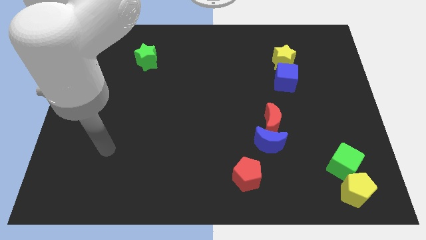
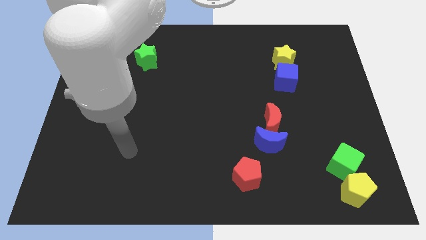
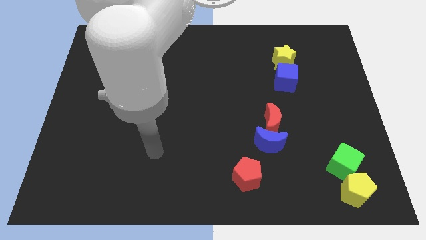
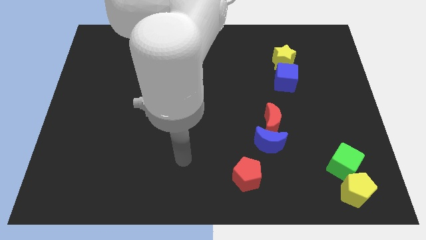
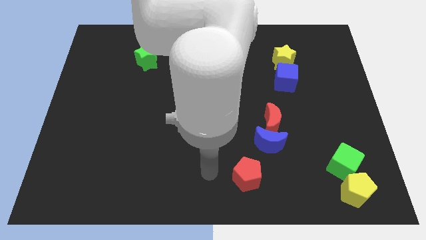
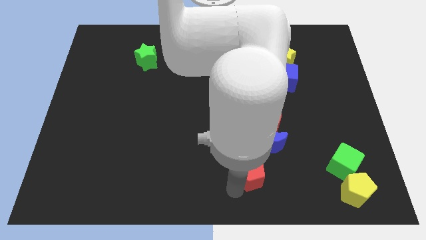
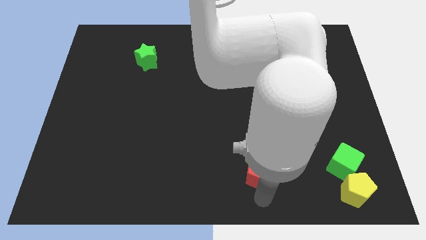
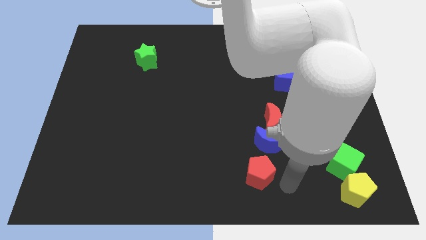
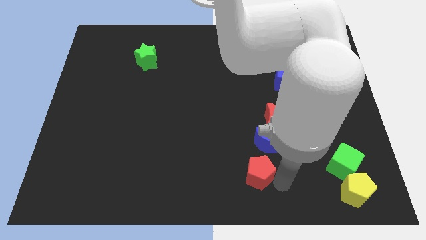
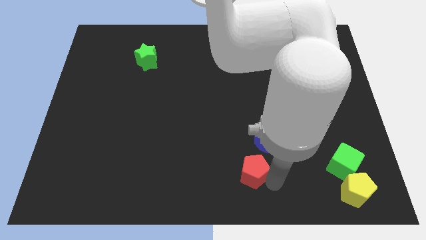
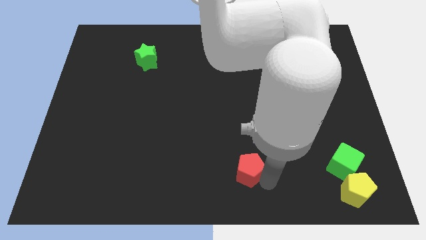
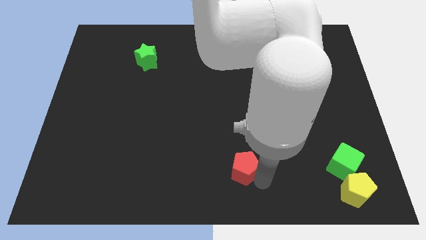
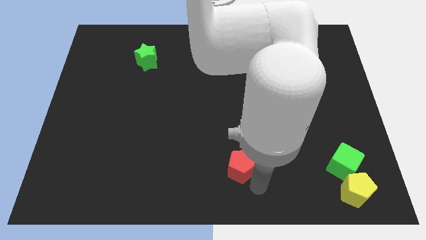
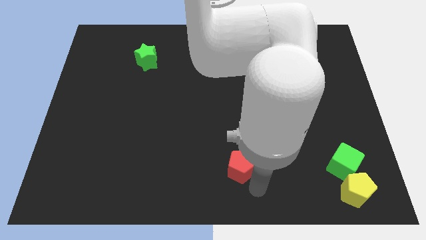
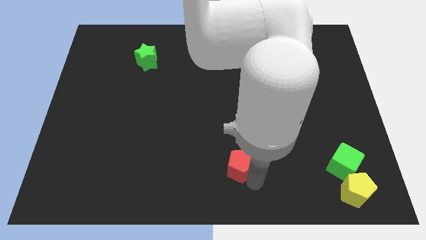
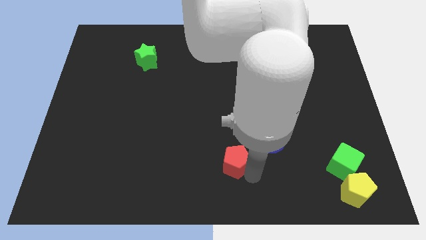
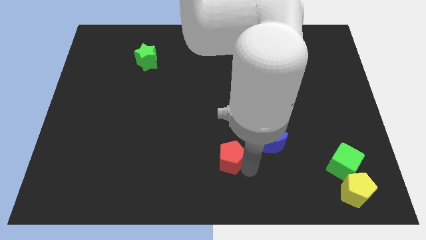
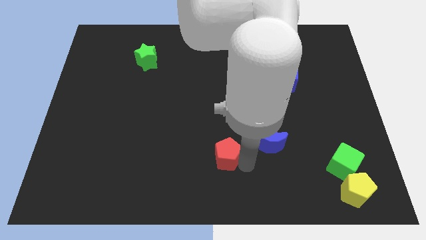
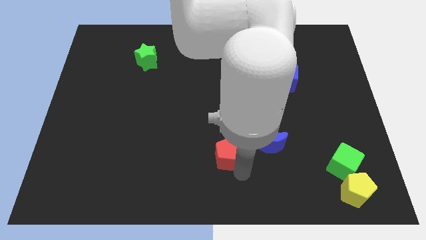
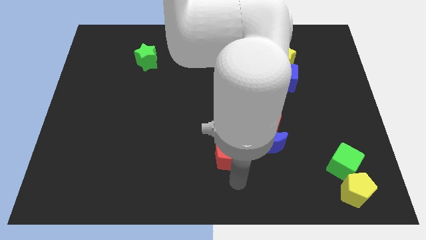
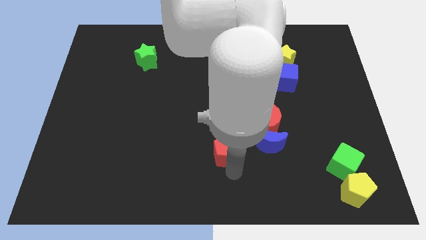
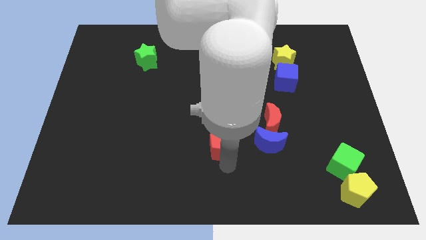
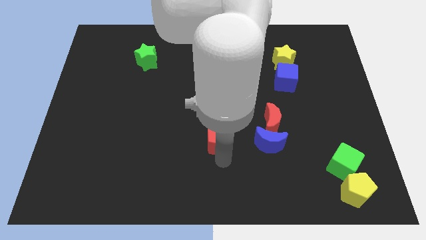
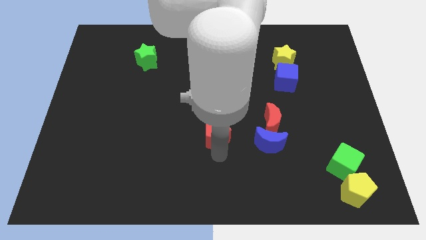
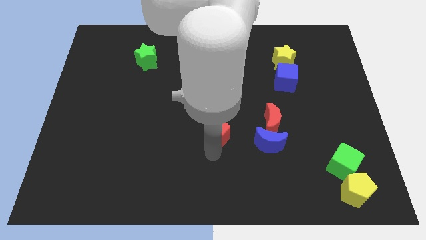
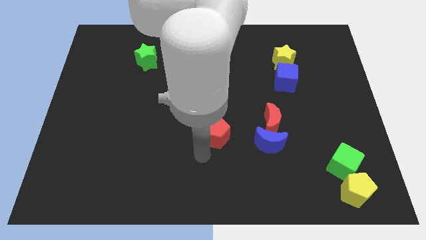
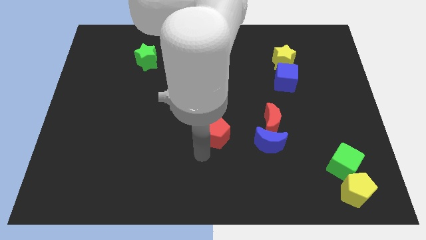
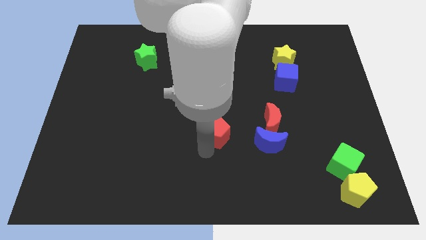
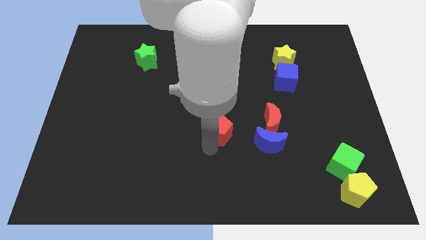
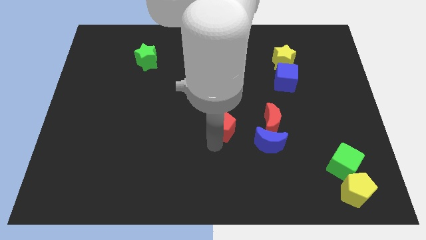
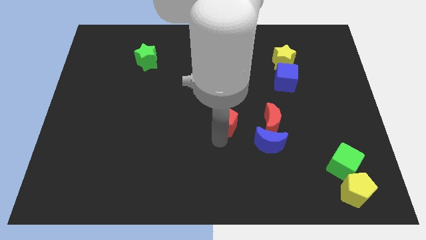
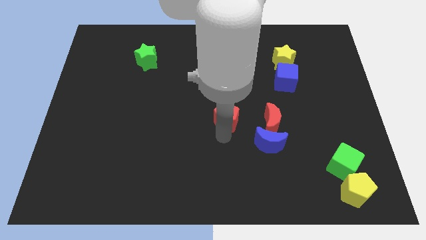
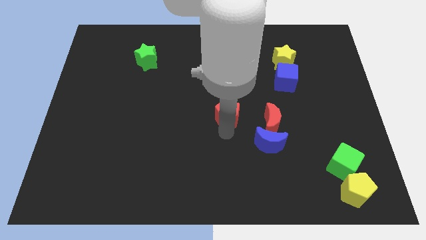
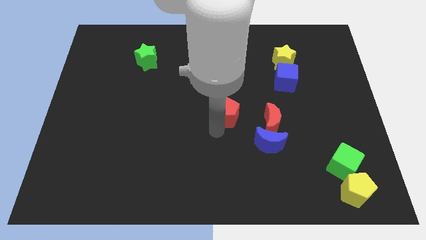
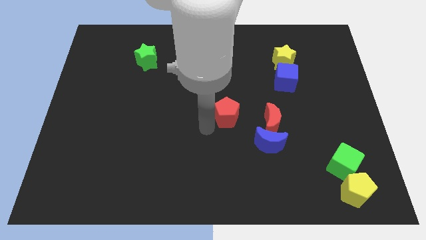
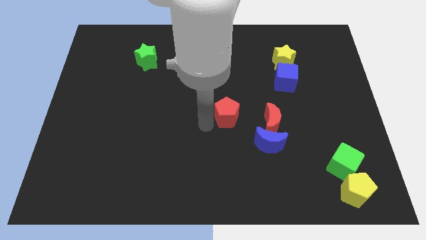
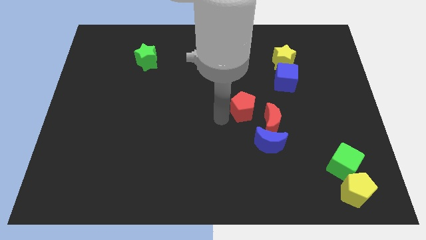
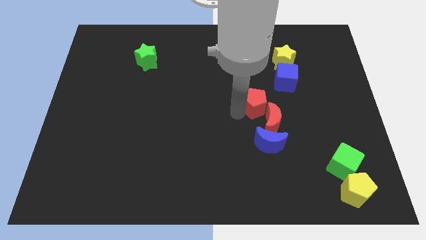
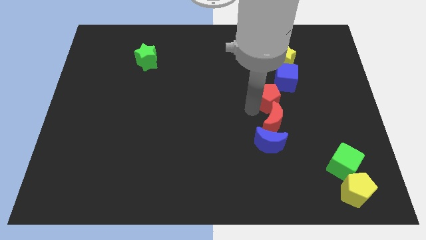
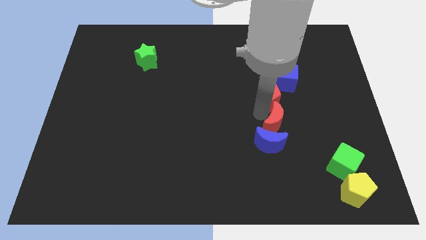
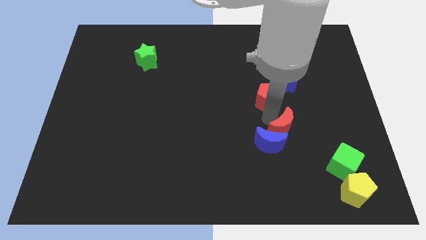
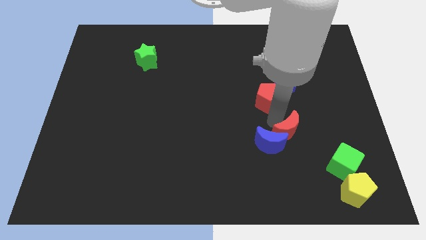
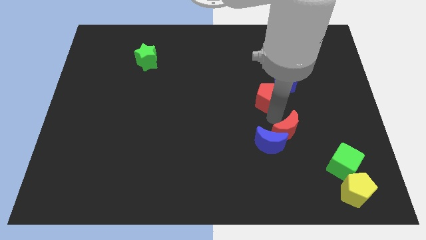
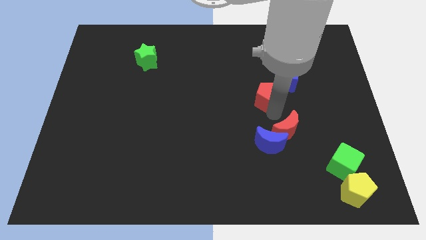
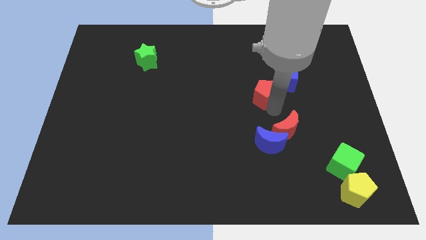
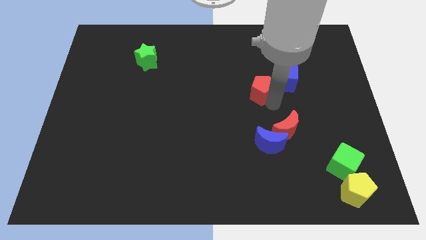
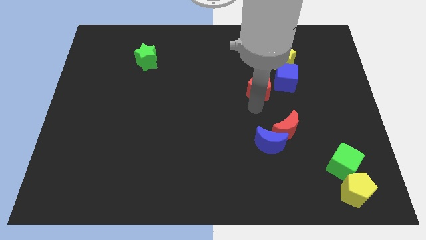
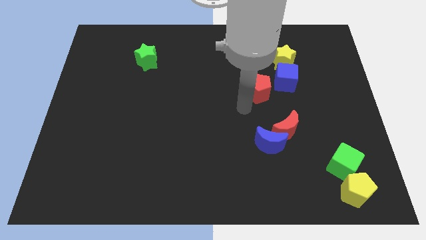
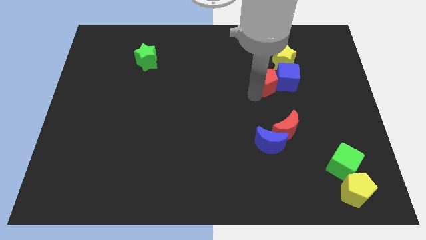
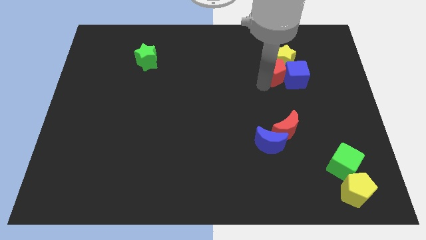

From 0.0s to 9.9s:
move the red pentagon next to the yellow star

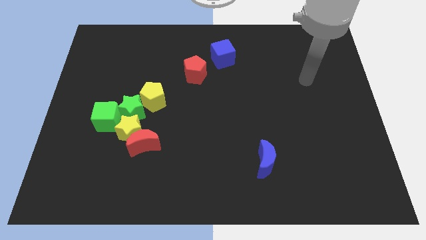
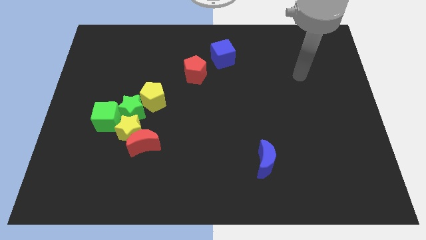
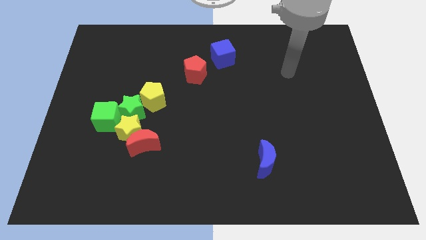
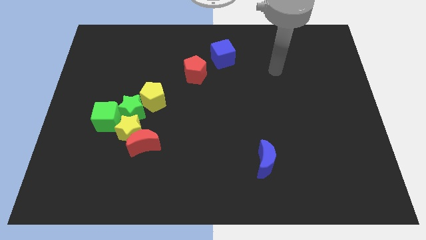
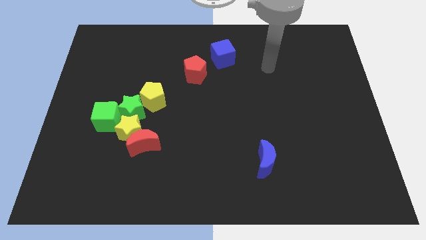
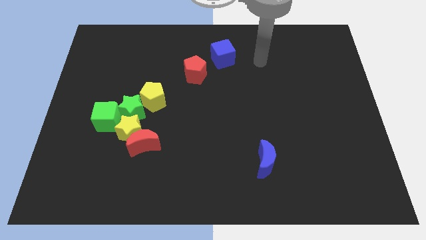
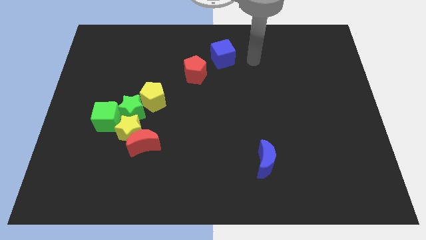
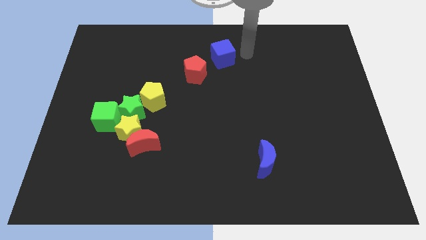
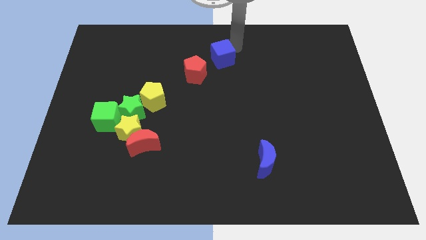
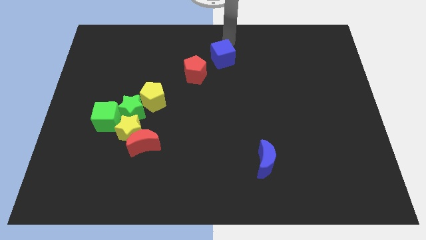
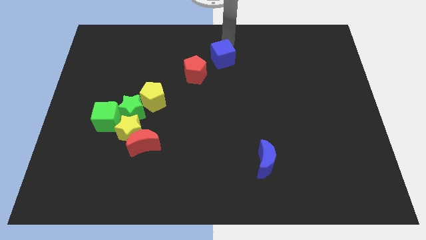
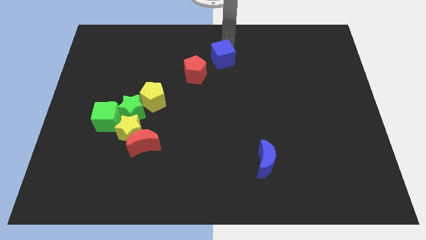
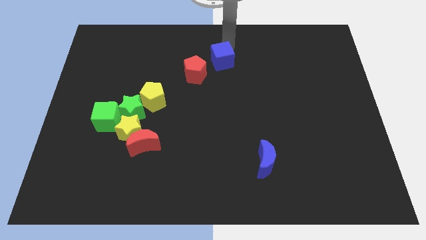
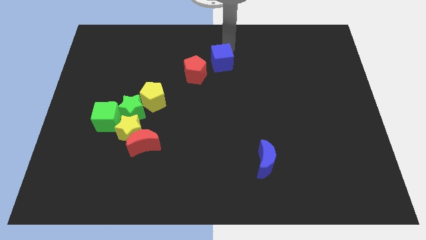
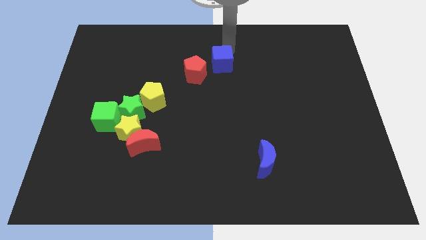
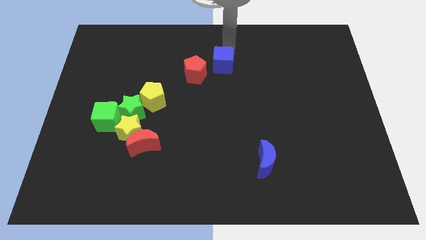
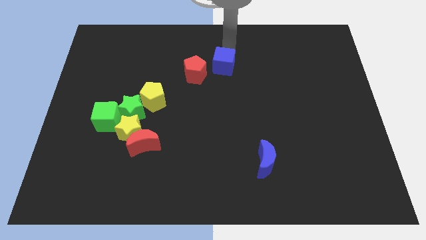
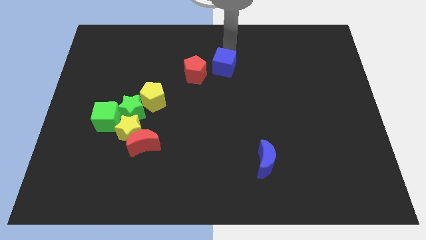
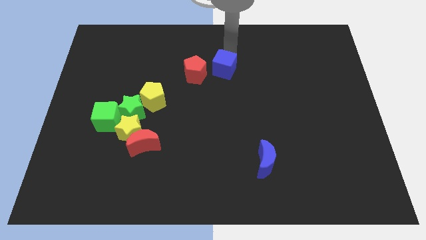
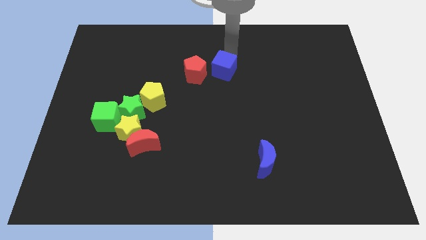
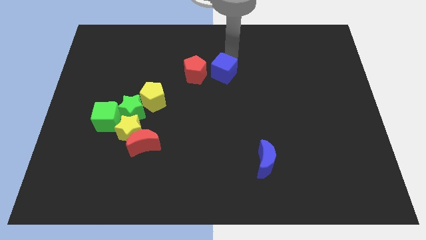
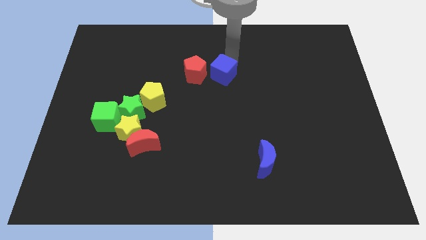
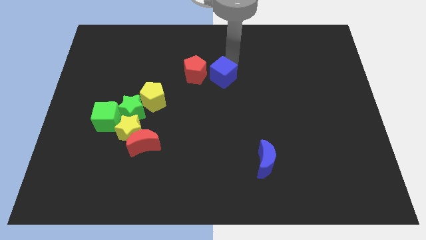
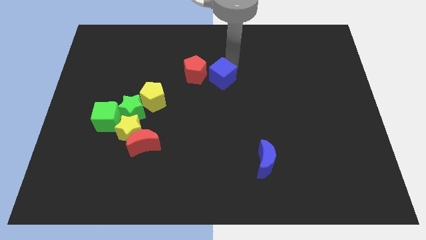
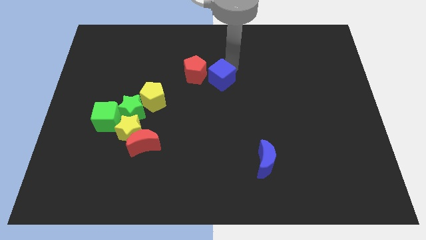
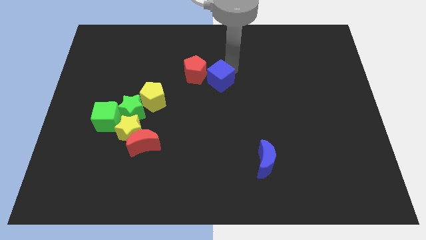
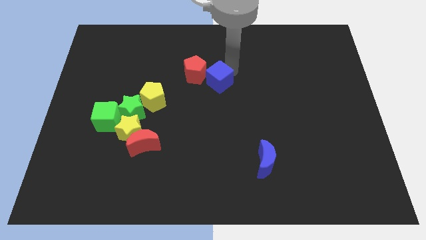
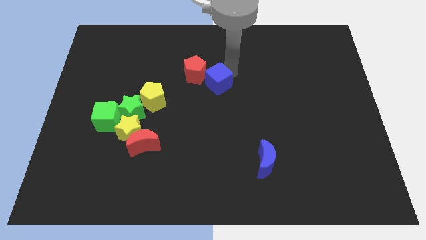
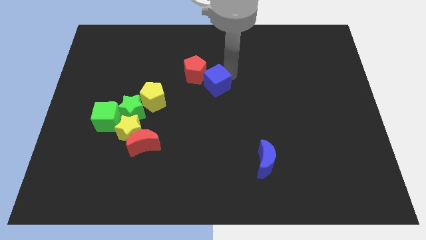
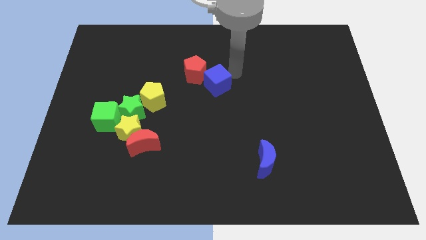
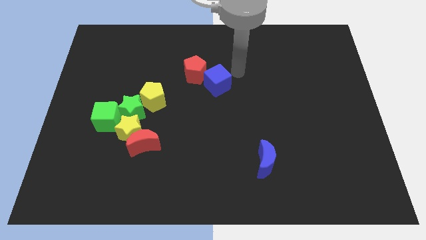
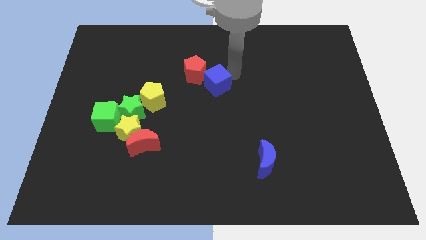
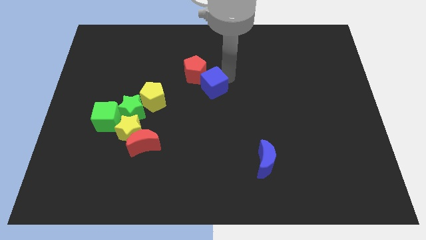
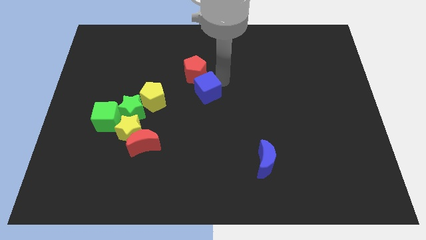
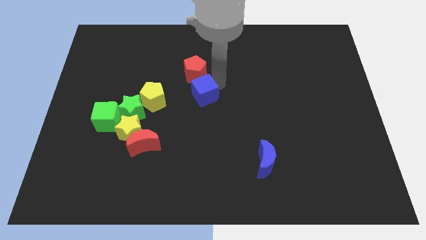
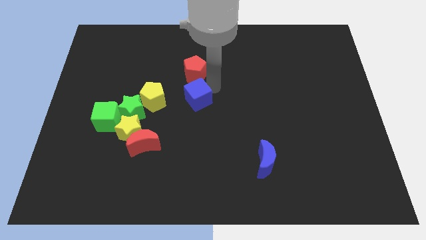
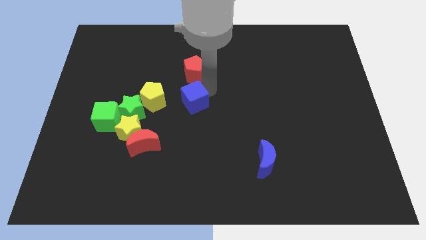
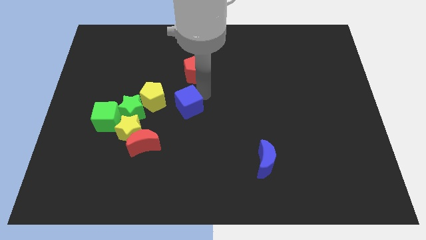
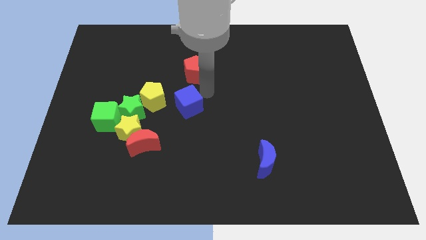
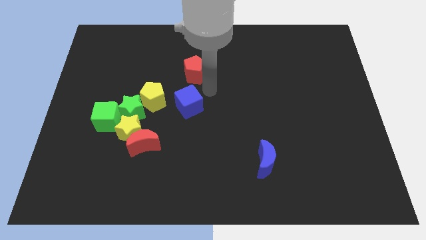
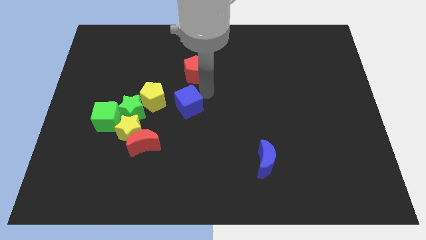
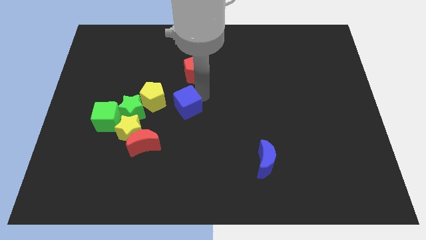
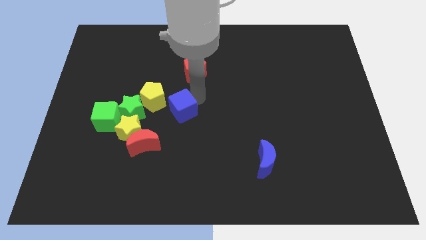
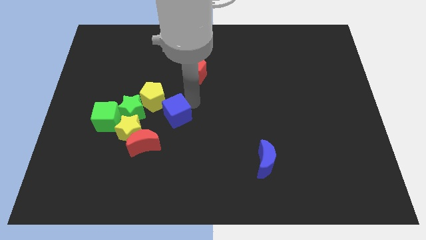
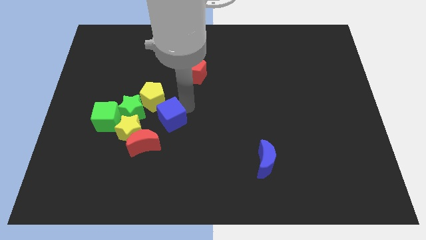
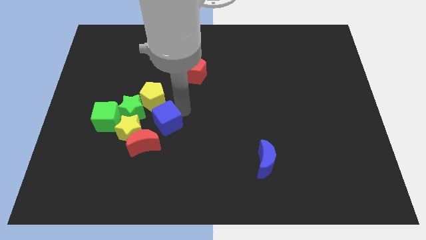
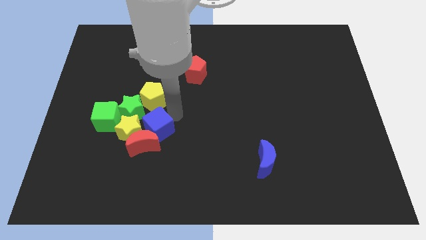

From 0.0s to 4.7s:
move the blue cube towards the red moon
